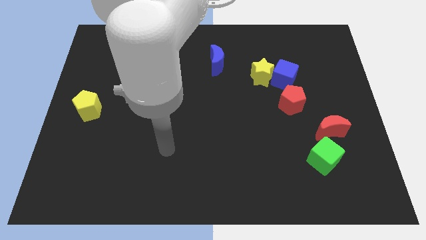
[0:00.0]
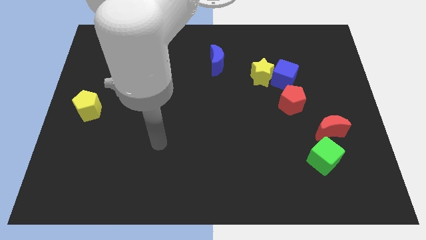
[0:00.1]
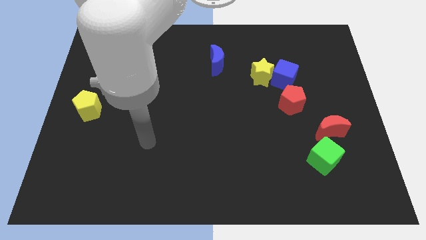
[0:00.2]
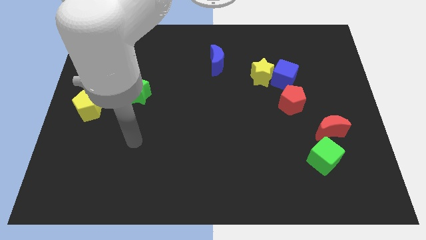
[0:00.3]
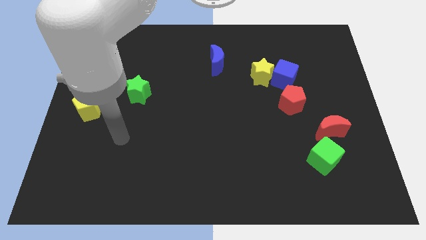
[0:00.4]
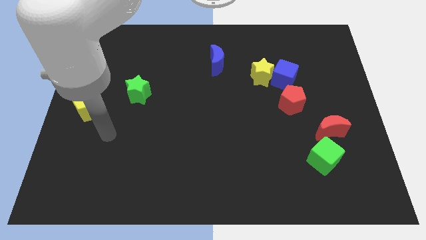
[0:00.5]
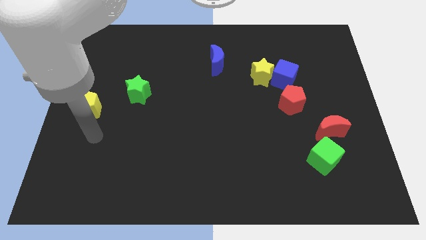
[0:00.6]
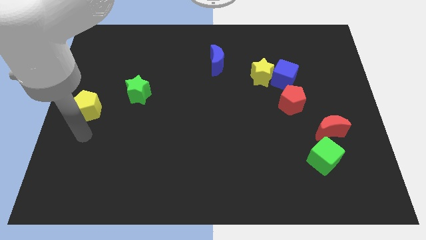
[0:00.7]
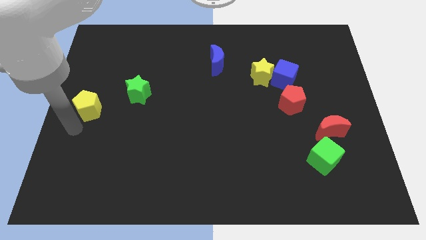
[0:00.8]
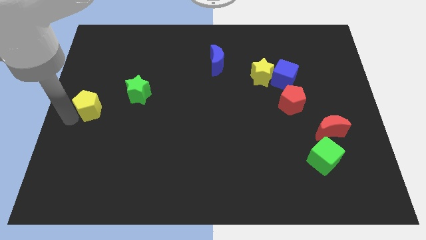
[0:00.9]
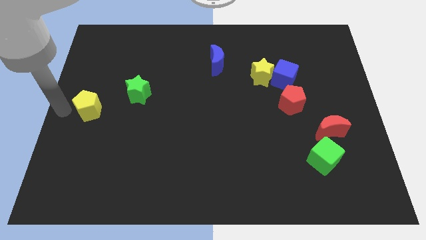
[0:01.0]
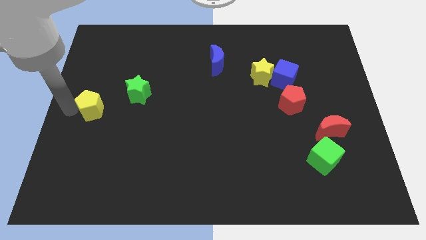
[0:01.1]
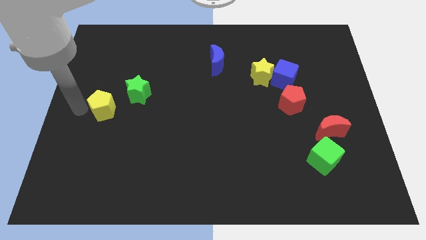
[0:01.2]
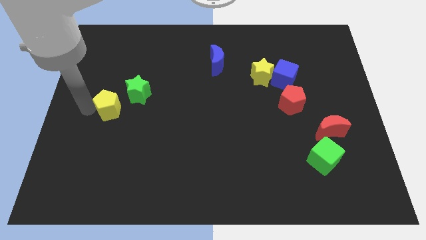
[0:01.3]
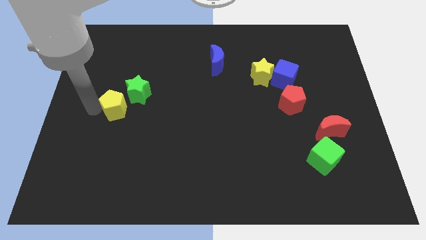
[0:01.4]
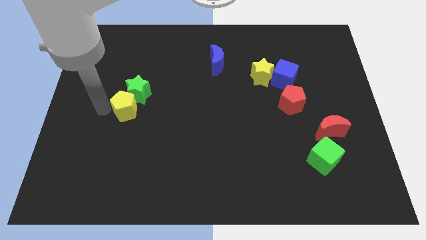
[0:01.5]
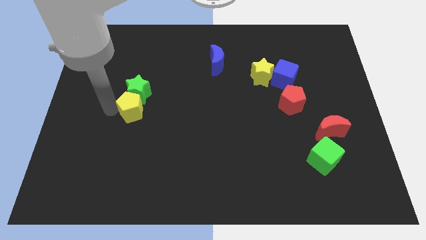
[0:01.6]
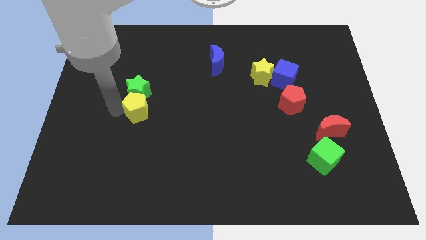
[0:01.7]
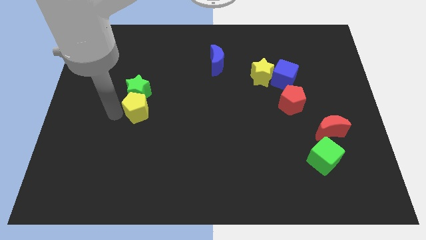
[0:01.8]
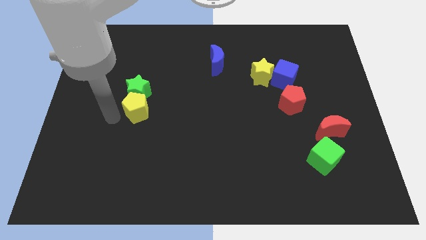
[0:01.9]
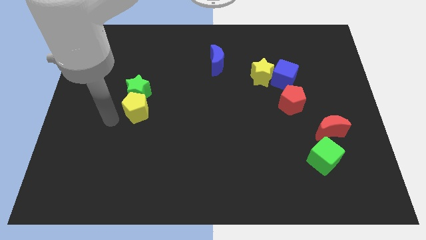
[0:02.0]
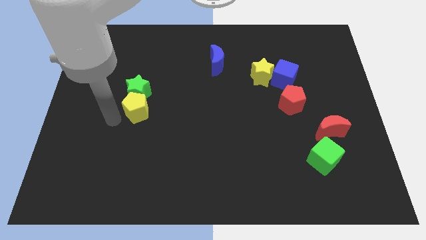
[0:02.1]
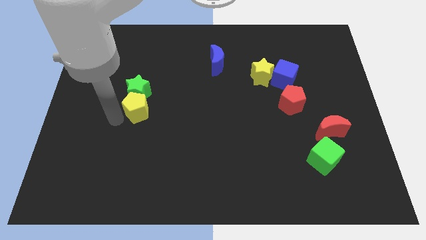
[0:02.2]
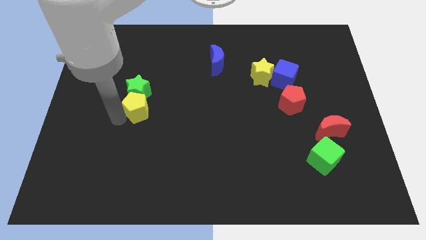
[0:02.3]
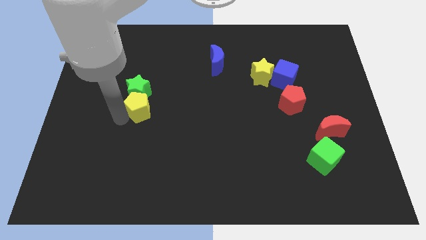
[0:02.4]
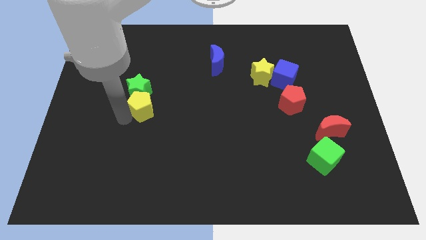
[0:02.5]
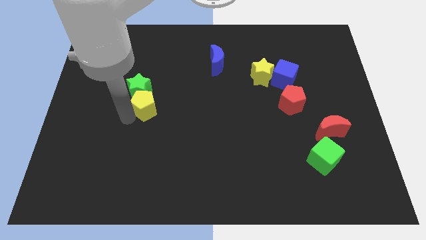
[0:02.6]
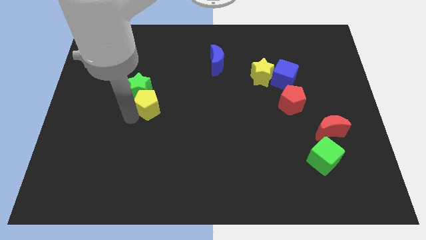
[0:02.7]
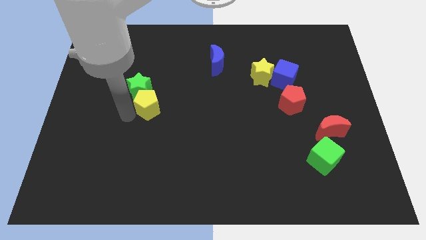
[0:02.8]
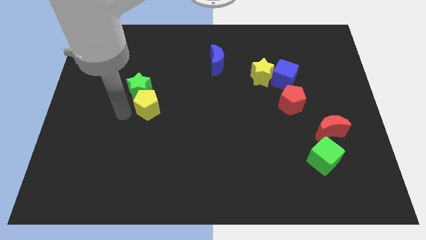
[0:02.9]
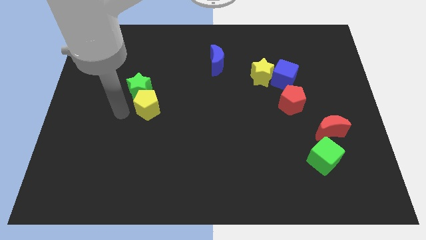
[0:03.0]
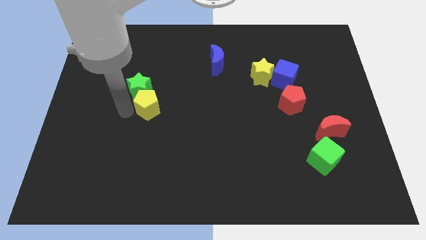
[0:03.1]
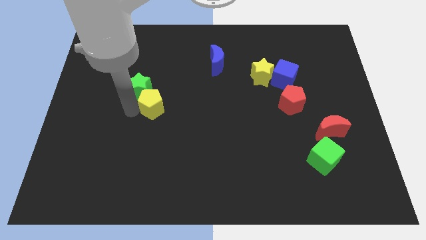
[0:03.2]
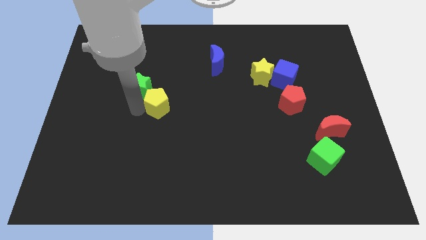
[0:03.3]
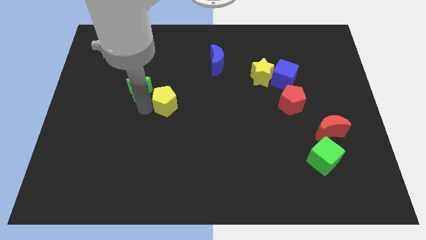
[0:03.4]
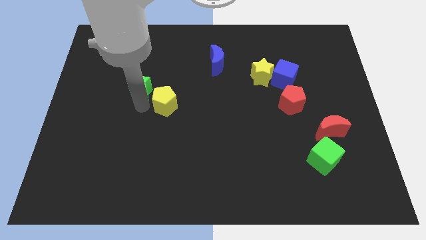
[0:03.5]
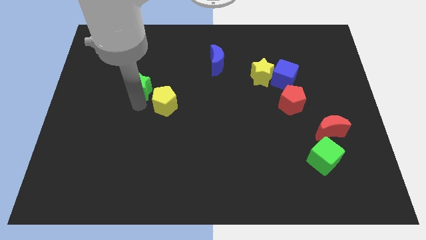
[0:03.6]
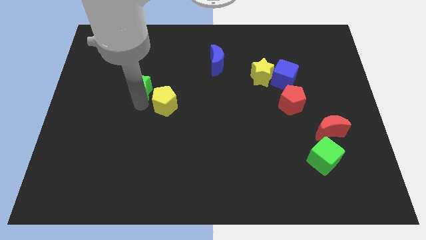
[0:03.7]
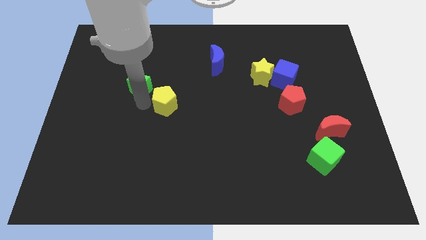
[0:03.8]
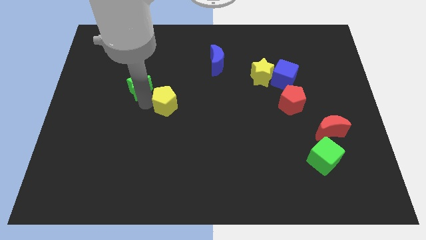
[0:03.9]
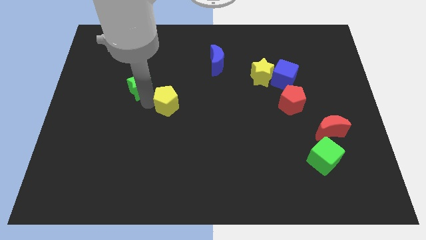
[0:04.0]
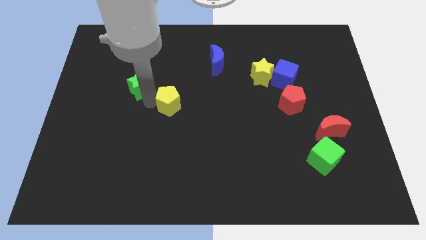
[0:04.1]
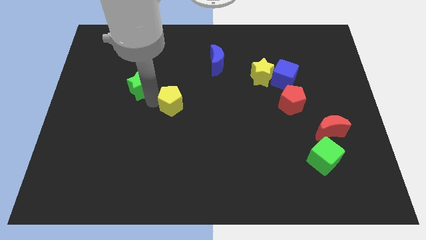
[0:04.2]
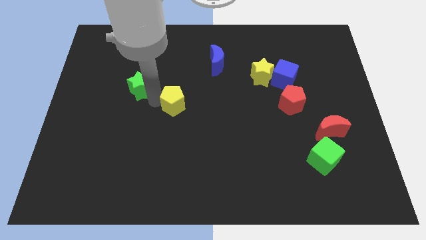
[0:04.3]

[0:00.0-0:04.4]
move the yellow pentagon to the right

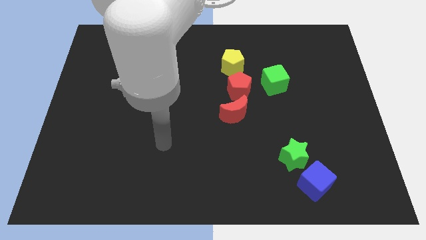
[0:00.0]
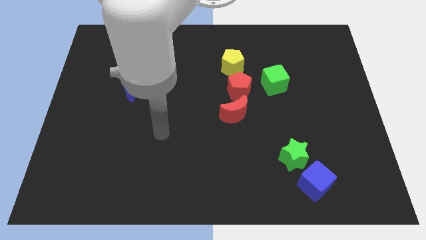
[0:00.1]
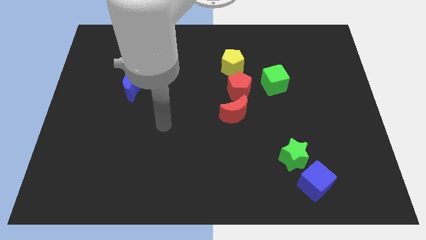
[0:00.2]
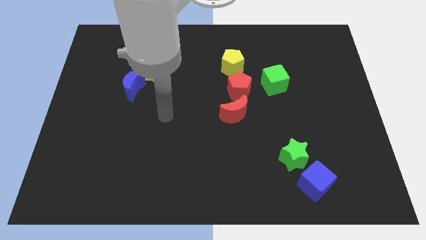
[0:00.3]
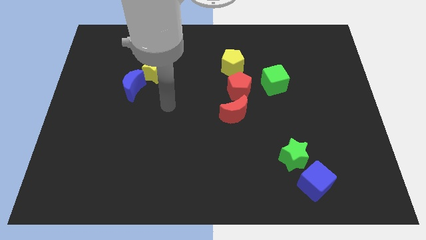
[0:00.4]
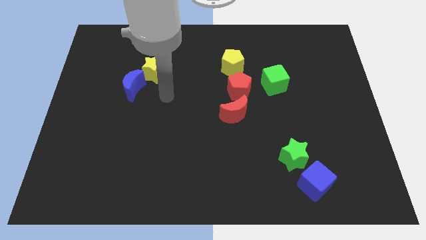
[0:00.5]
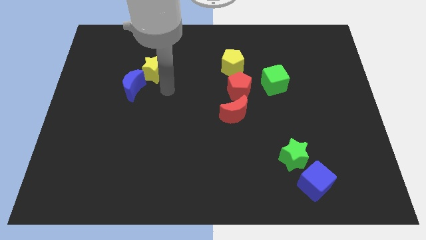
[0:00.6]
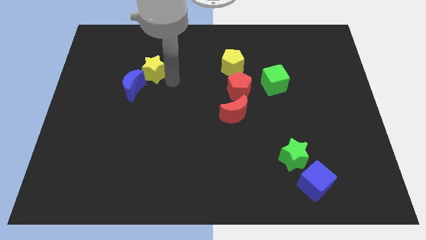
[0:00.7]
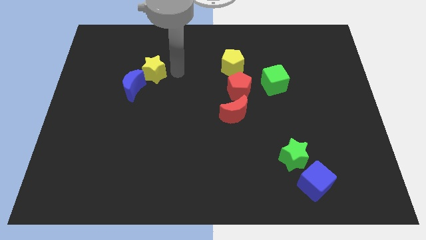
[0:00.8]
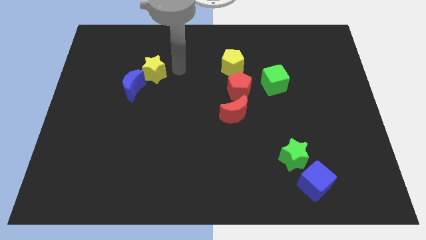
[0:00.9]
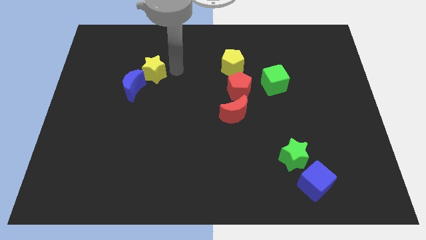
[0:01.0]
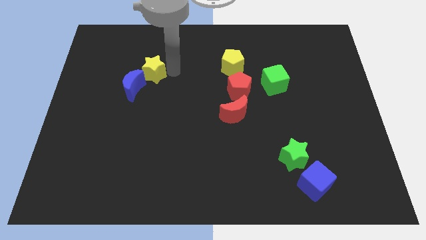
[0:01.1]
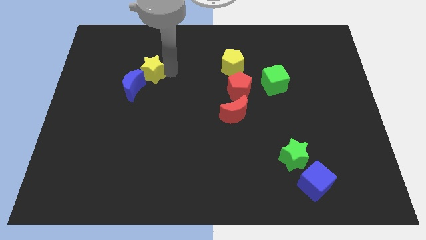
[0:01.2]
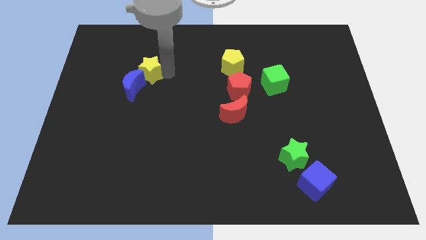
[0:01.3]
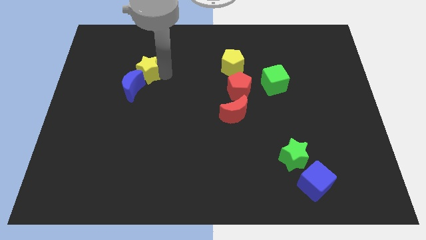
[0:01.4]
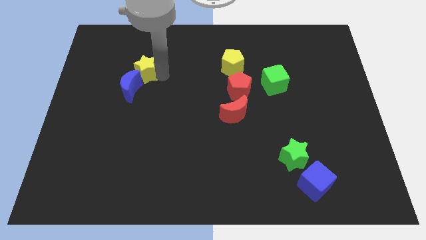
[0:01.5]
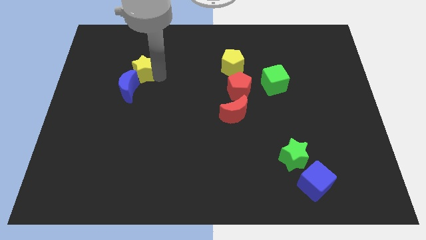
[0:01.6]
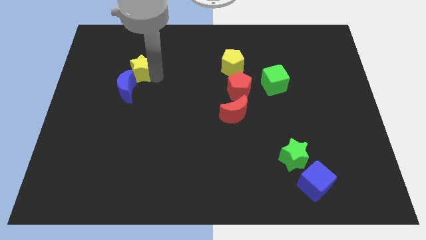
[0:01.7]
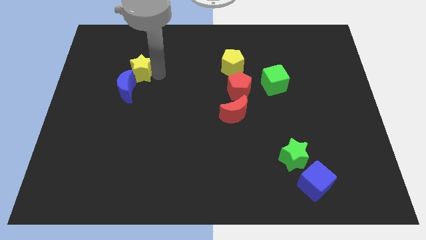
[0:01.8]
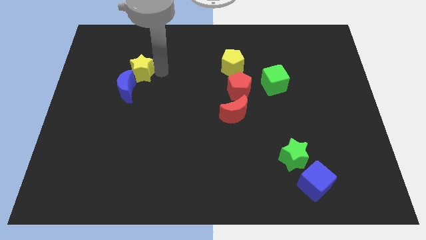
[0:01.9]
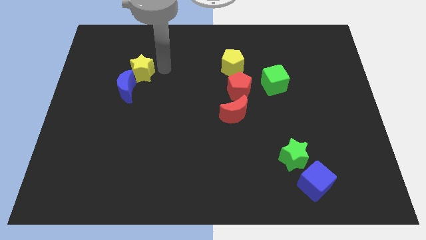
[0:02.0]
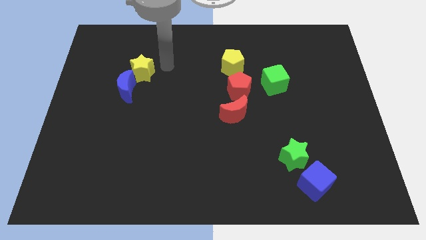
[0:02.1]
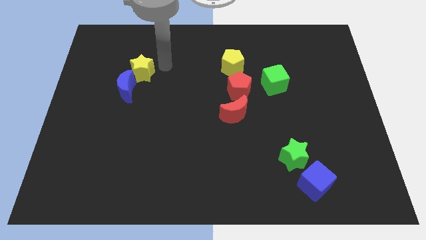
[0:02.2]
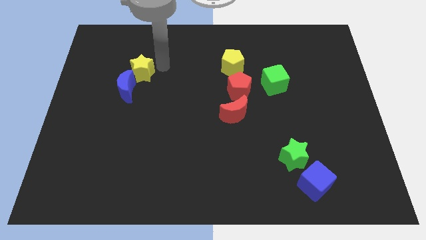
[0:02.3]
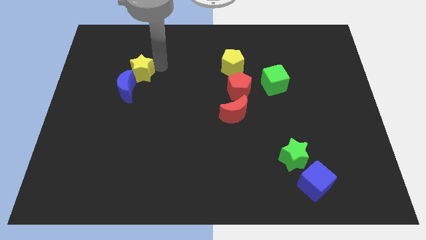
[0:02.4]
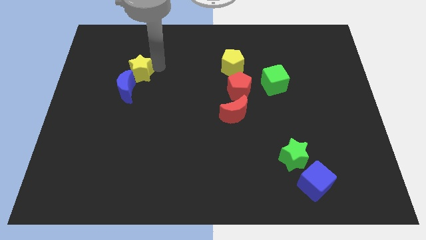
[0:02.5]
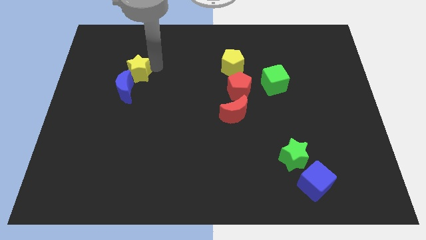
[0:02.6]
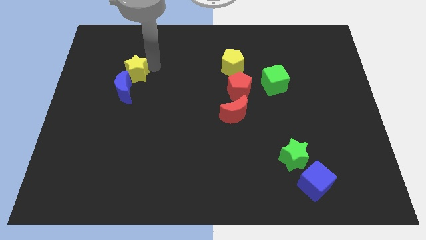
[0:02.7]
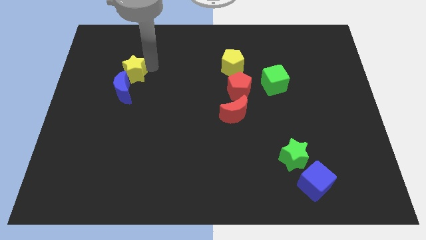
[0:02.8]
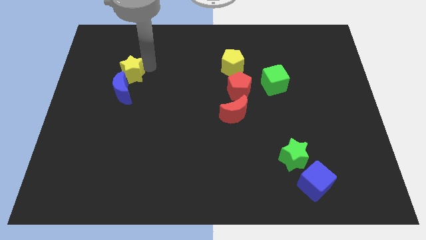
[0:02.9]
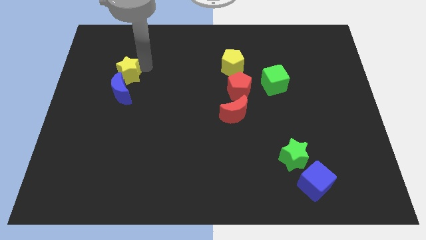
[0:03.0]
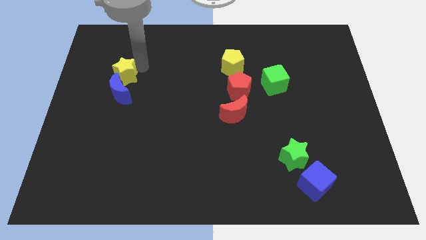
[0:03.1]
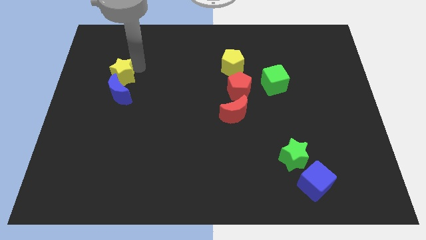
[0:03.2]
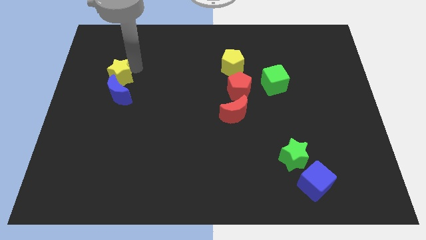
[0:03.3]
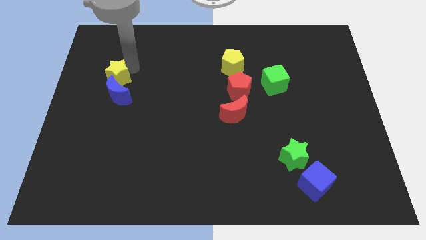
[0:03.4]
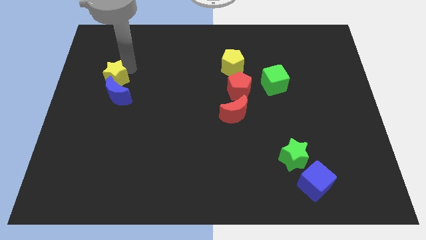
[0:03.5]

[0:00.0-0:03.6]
move the yellow star down and to the left diagonally slightly

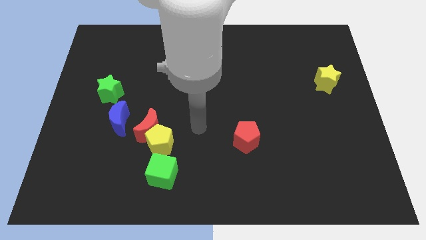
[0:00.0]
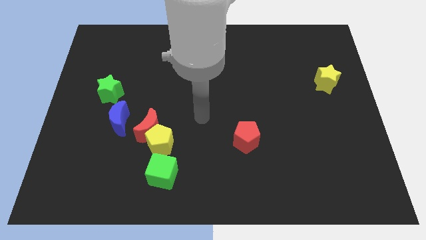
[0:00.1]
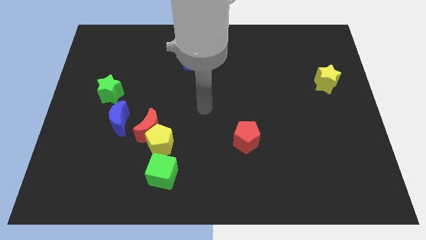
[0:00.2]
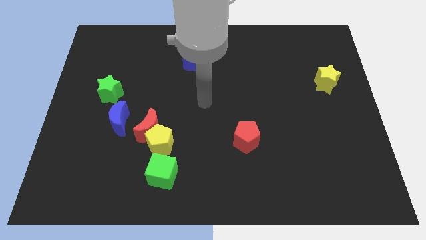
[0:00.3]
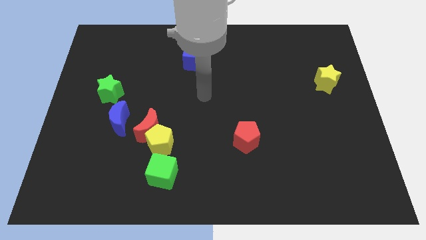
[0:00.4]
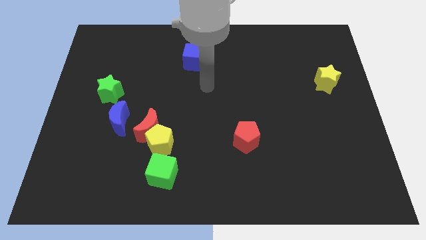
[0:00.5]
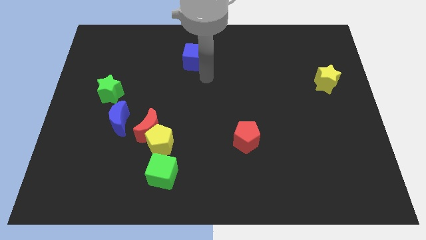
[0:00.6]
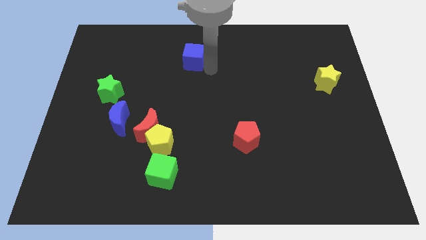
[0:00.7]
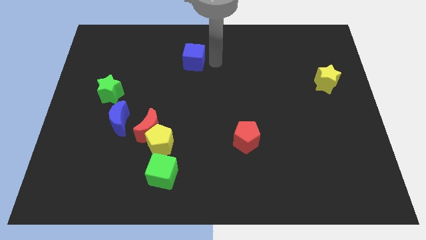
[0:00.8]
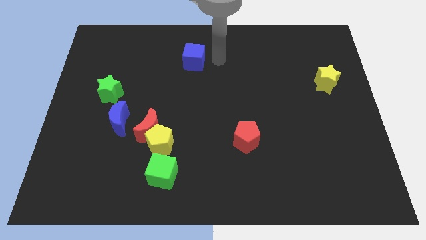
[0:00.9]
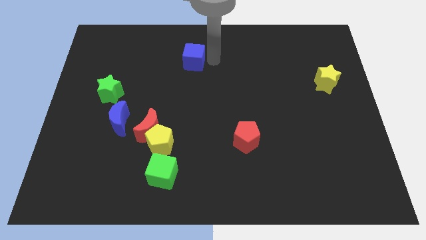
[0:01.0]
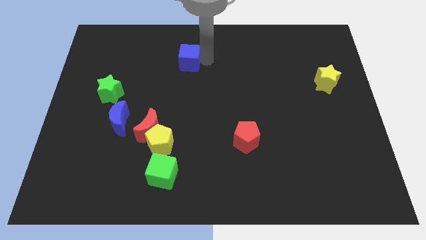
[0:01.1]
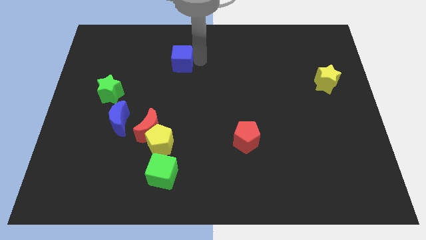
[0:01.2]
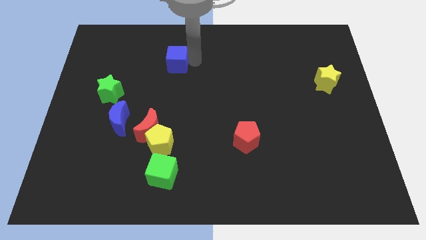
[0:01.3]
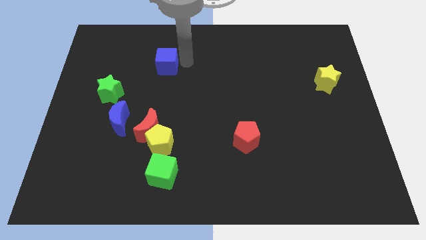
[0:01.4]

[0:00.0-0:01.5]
move the blue cube a little bit left
